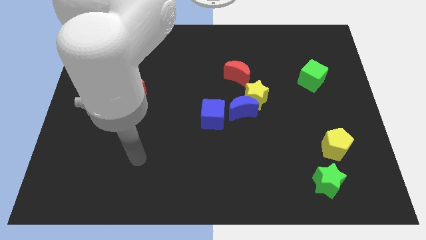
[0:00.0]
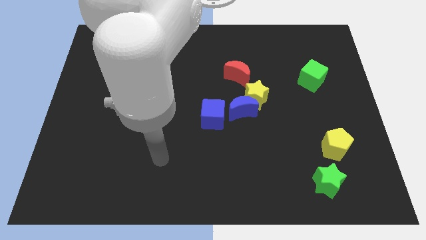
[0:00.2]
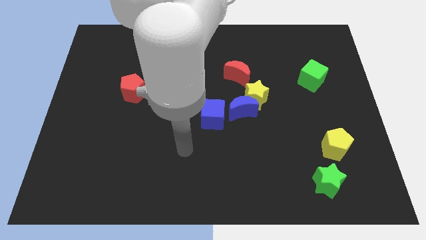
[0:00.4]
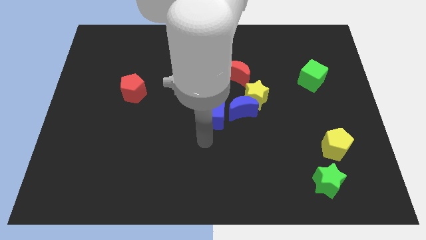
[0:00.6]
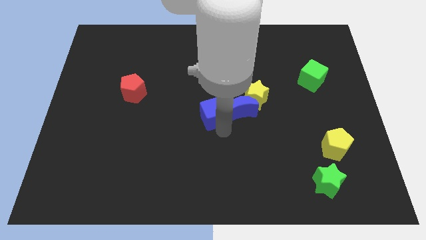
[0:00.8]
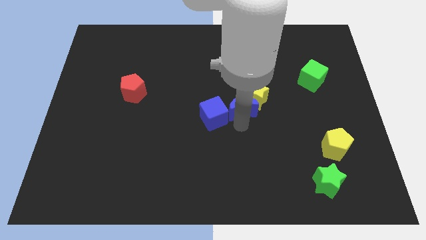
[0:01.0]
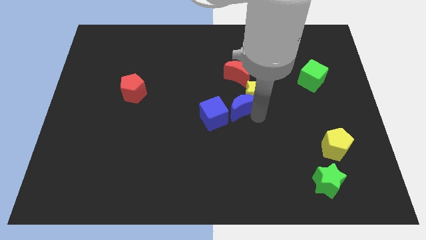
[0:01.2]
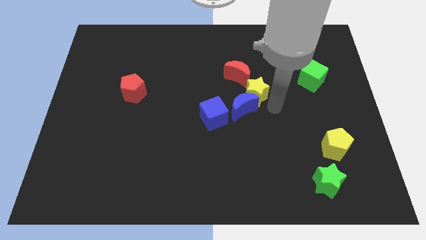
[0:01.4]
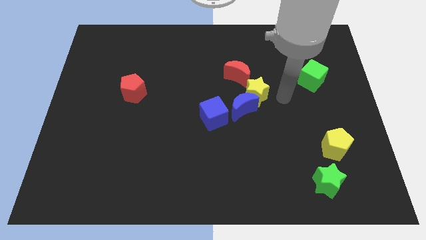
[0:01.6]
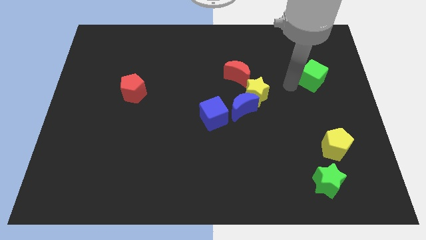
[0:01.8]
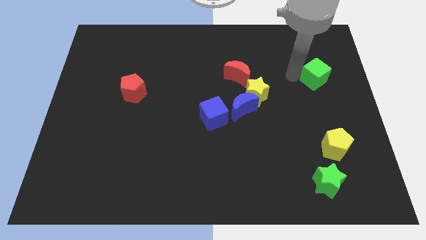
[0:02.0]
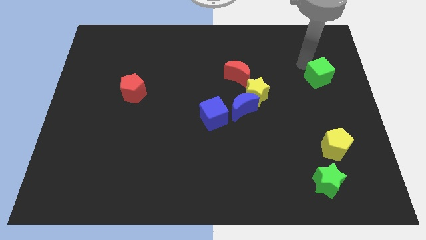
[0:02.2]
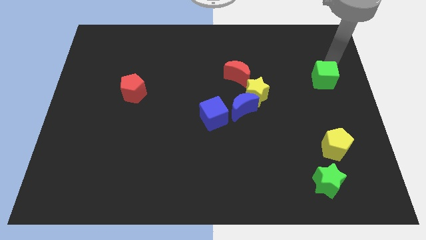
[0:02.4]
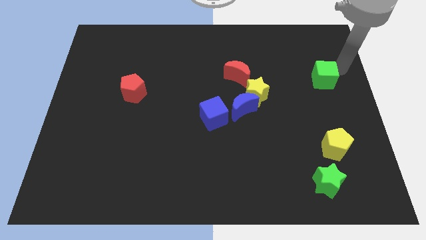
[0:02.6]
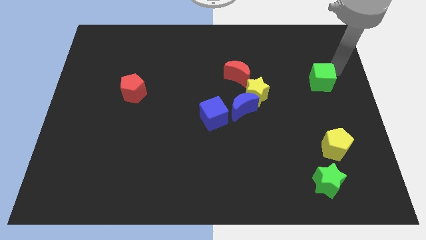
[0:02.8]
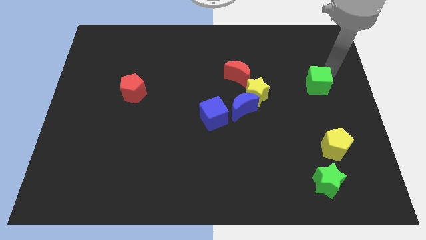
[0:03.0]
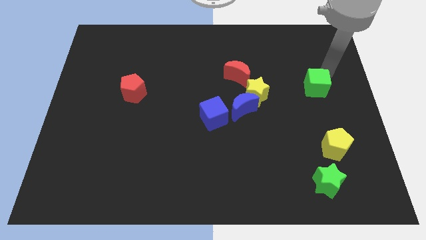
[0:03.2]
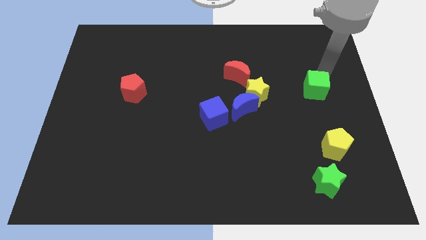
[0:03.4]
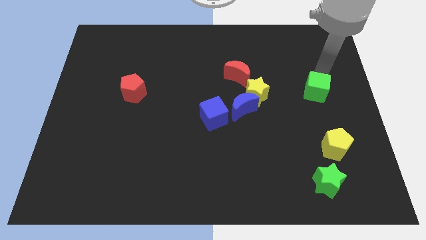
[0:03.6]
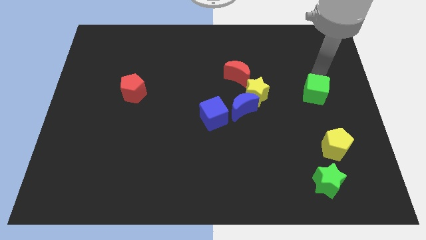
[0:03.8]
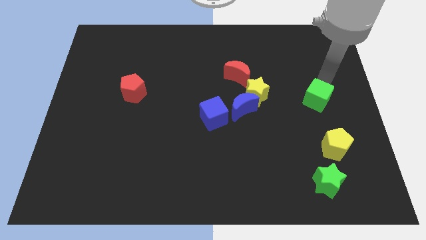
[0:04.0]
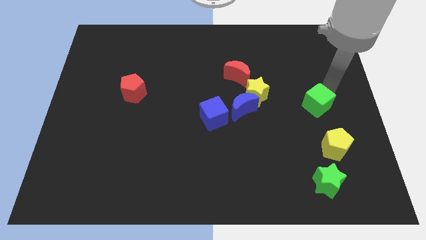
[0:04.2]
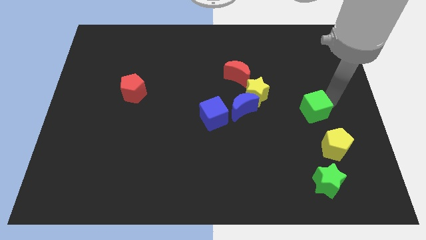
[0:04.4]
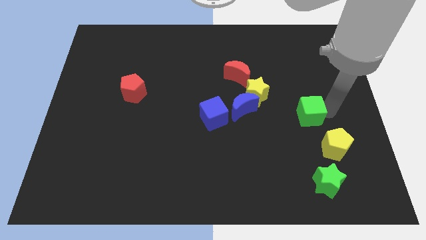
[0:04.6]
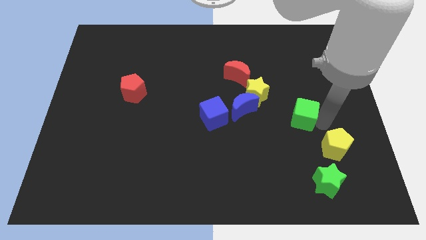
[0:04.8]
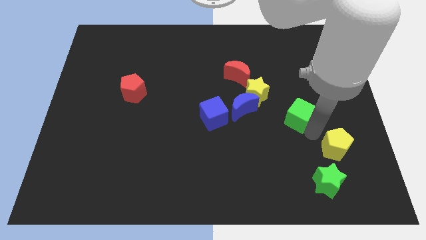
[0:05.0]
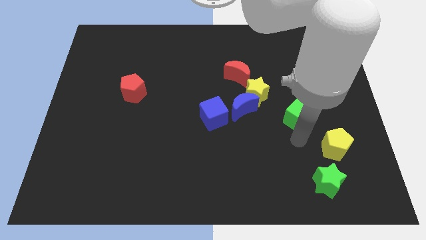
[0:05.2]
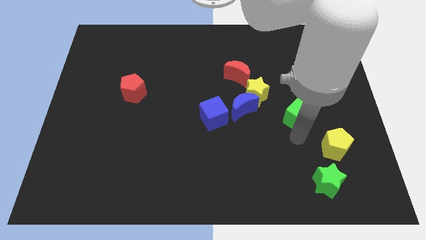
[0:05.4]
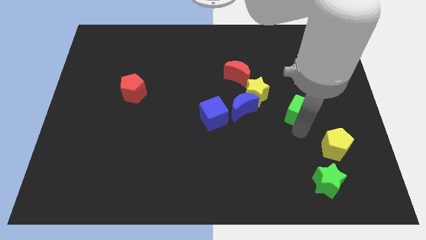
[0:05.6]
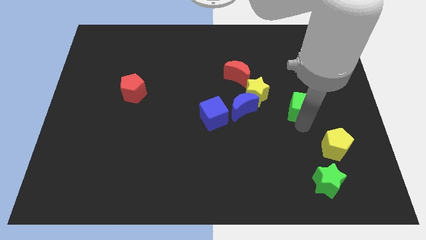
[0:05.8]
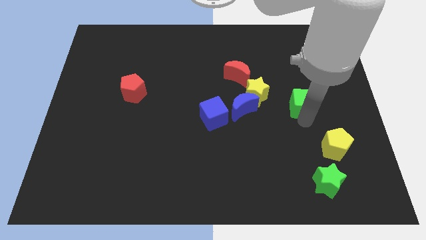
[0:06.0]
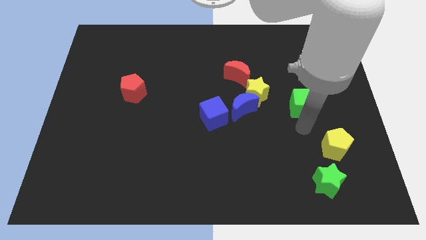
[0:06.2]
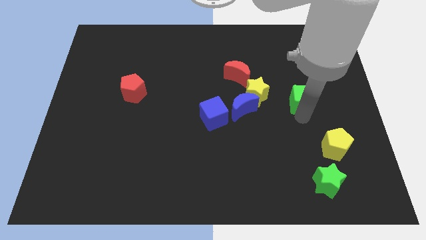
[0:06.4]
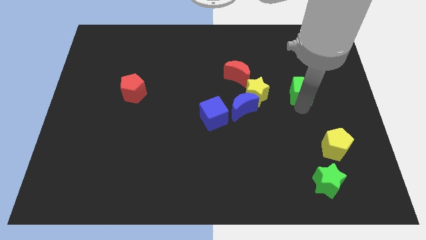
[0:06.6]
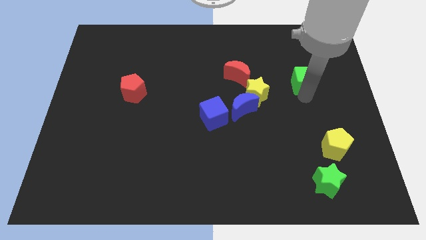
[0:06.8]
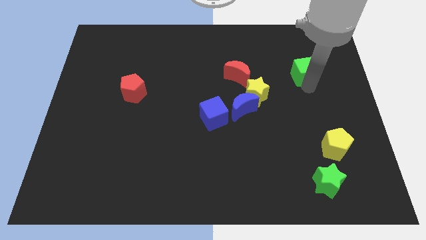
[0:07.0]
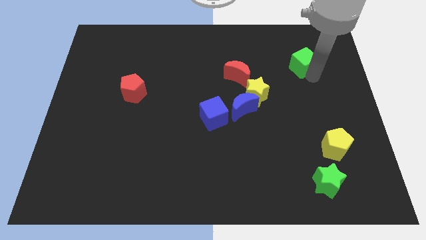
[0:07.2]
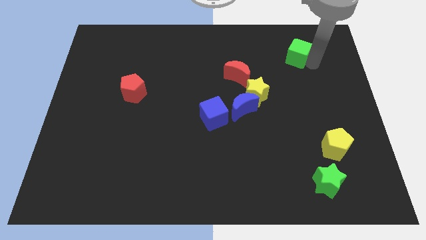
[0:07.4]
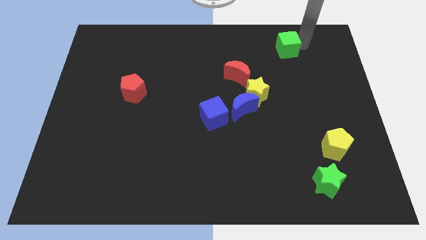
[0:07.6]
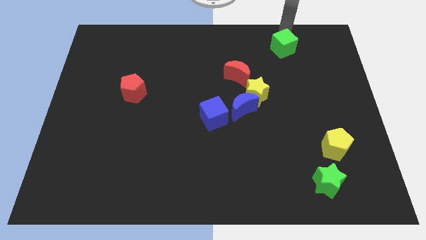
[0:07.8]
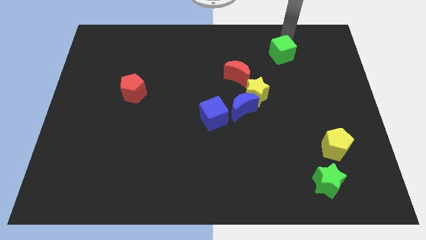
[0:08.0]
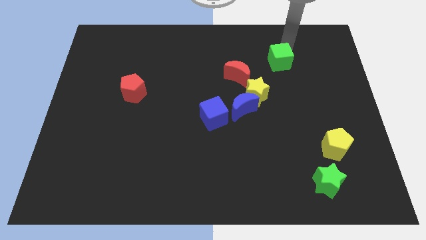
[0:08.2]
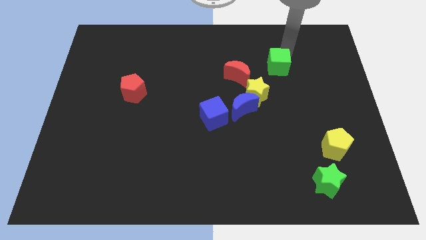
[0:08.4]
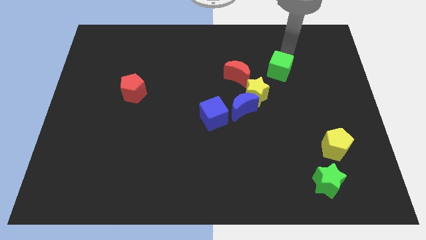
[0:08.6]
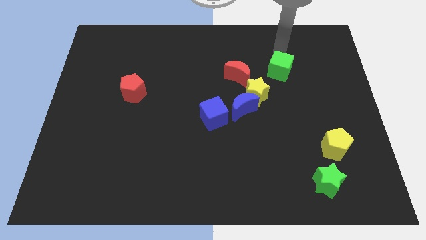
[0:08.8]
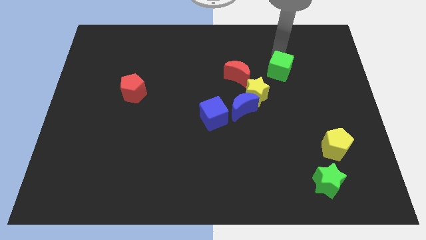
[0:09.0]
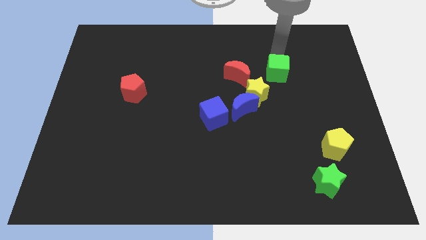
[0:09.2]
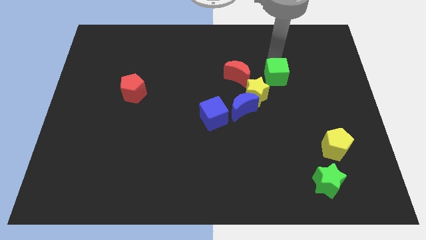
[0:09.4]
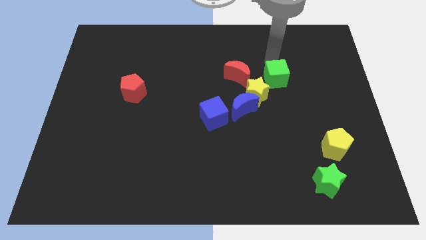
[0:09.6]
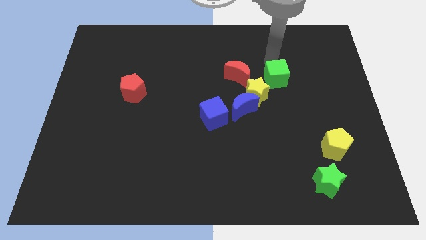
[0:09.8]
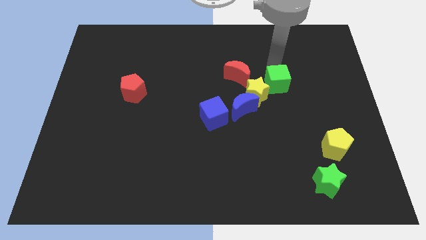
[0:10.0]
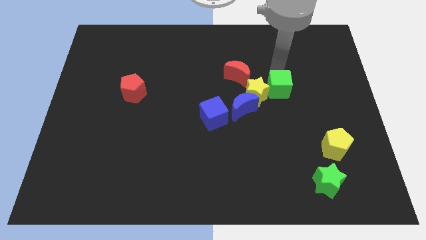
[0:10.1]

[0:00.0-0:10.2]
slide the green cube towards the yellow star

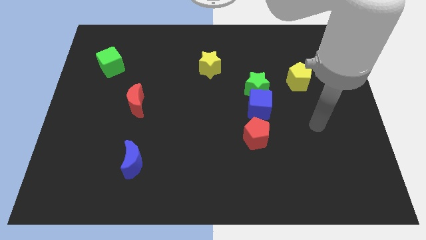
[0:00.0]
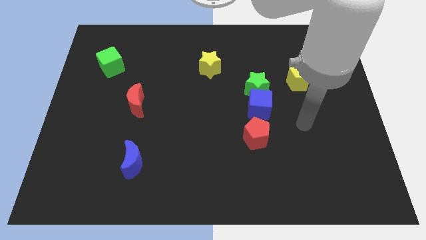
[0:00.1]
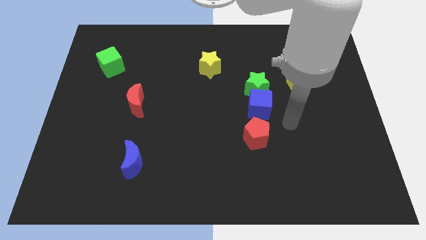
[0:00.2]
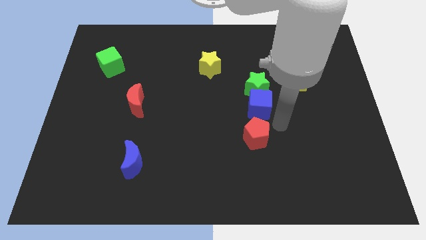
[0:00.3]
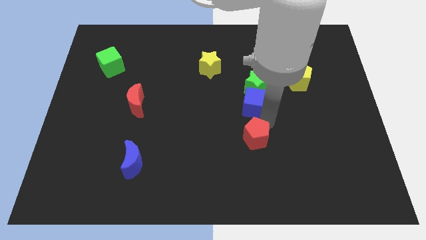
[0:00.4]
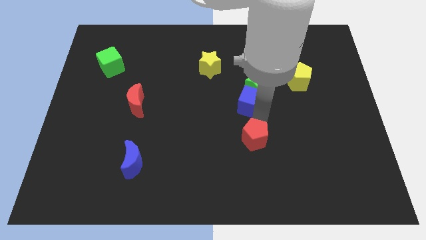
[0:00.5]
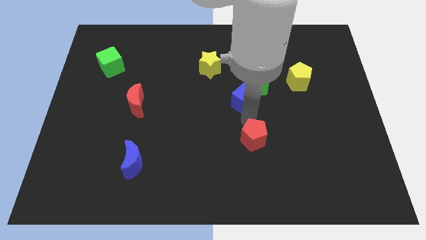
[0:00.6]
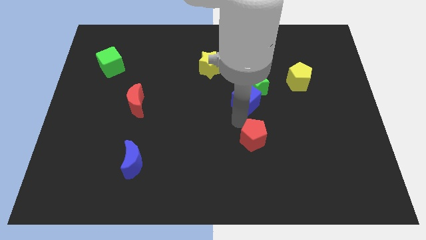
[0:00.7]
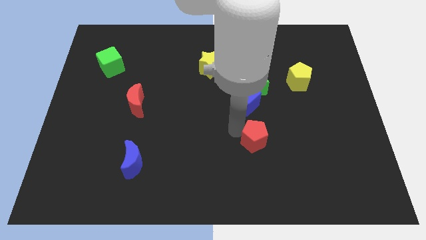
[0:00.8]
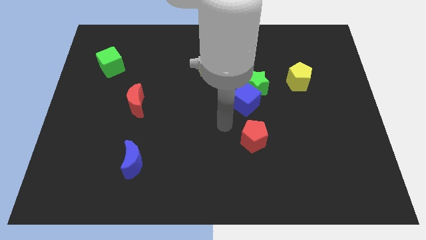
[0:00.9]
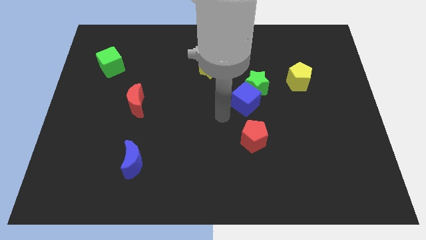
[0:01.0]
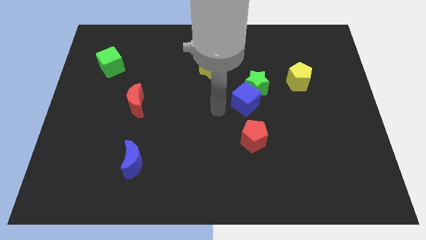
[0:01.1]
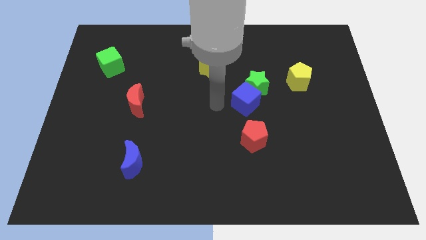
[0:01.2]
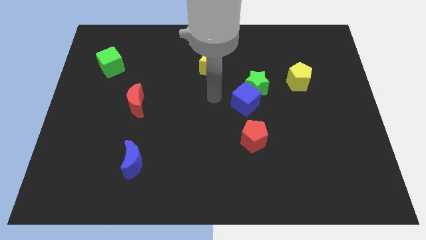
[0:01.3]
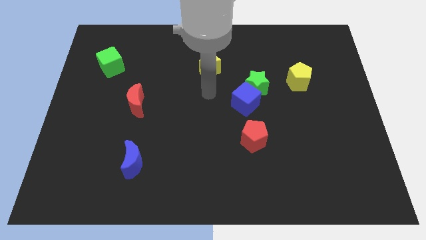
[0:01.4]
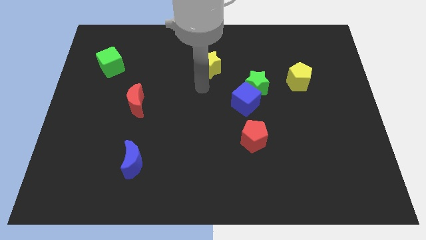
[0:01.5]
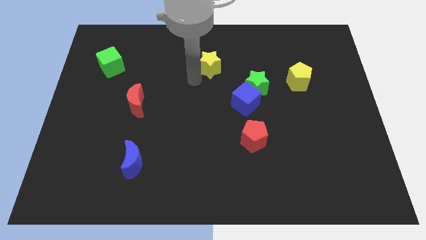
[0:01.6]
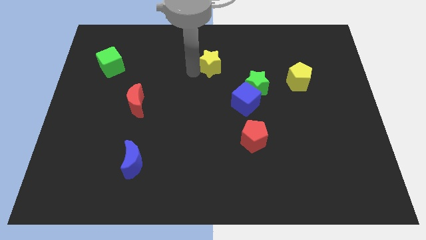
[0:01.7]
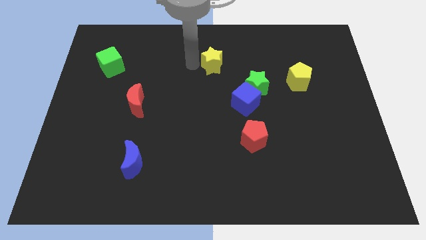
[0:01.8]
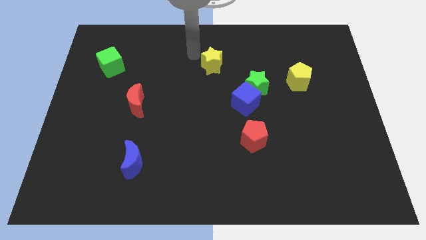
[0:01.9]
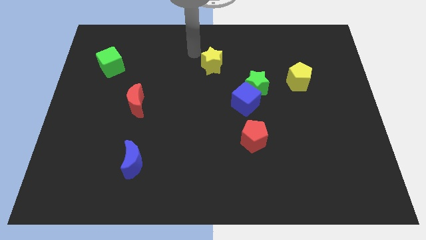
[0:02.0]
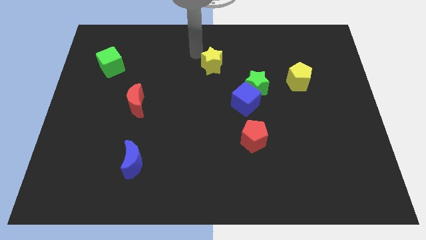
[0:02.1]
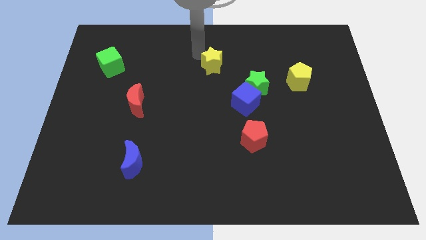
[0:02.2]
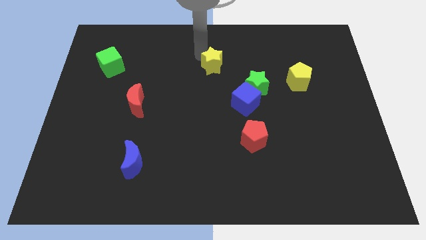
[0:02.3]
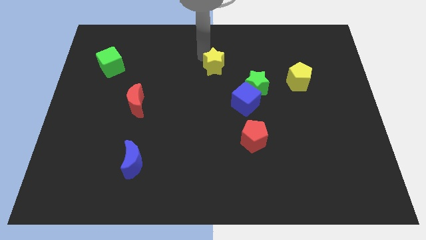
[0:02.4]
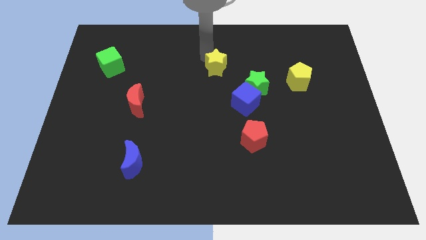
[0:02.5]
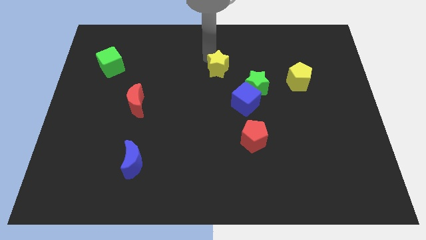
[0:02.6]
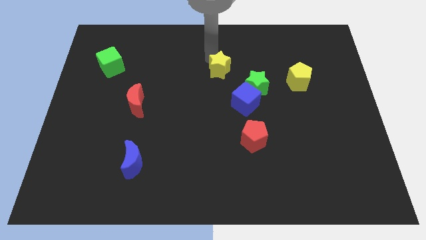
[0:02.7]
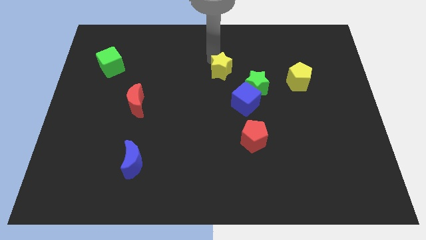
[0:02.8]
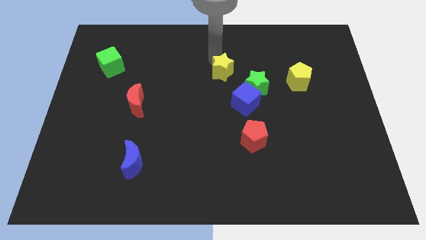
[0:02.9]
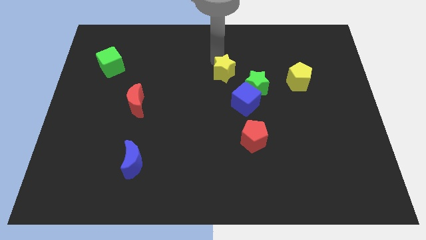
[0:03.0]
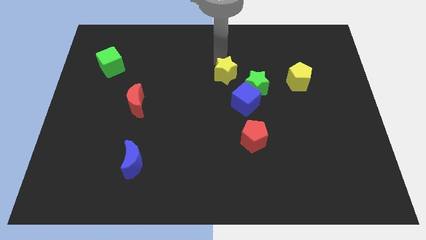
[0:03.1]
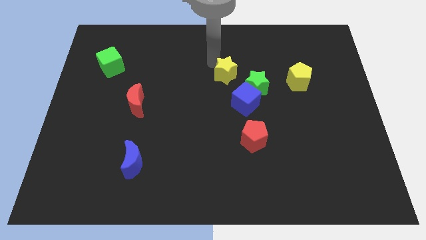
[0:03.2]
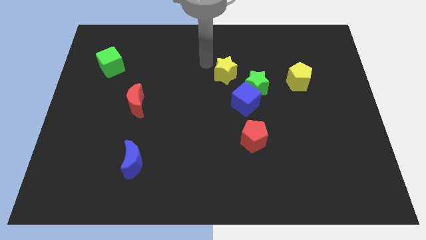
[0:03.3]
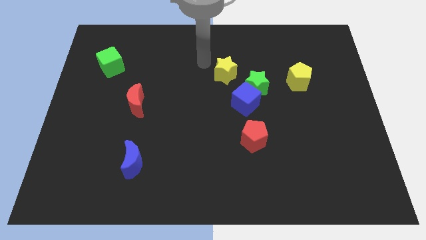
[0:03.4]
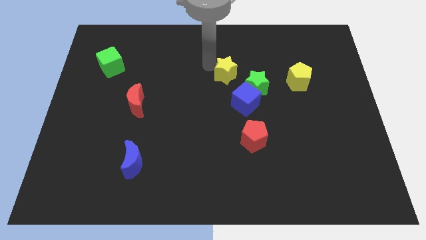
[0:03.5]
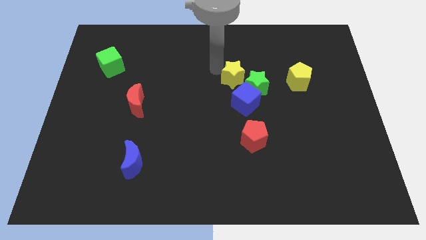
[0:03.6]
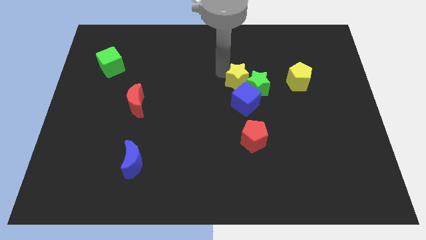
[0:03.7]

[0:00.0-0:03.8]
put the yellow star close to the green star
